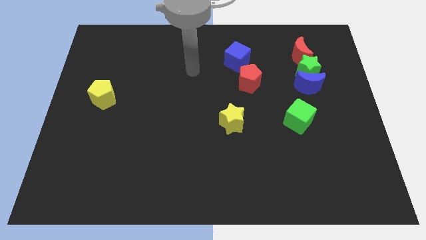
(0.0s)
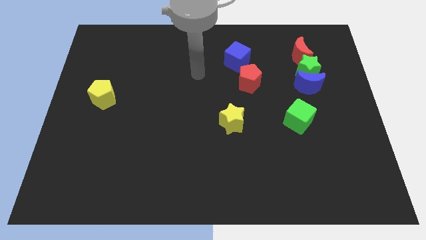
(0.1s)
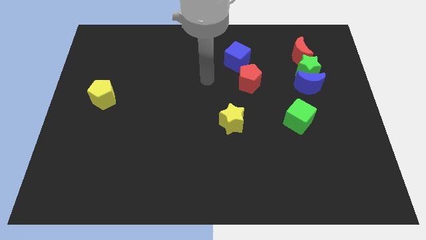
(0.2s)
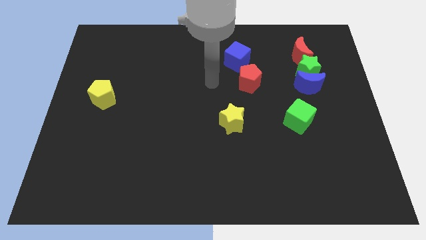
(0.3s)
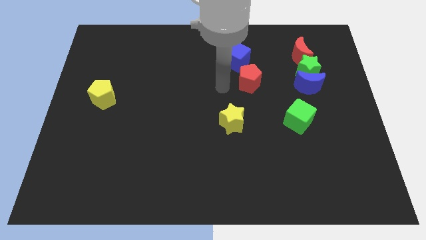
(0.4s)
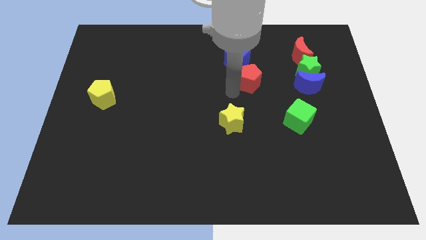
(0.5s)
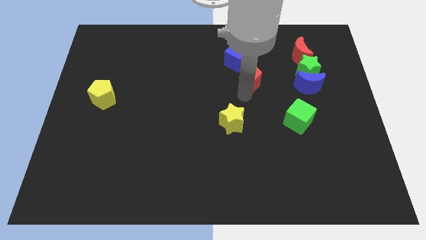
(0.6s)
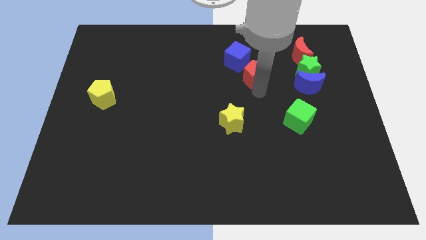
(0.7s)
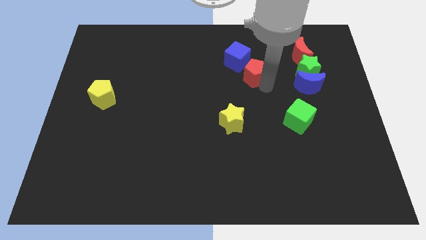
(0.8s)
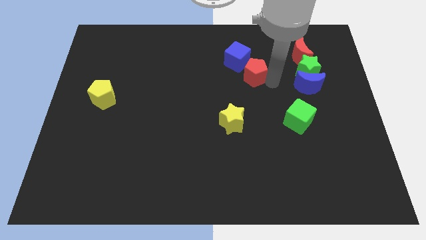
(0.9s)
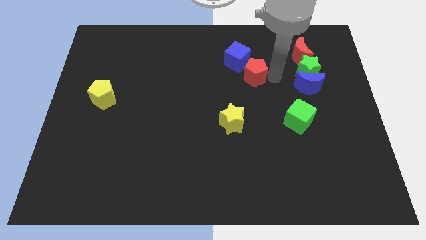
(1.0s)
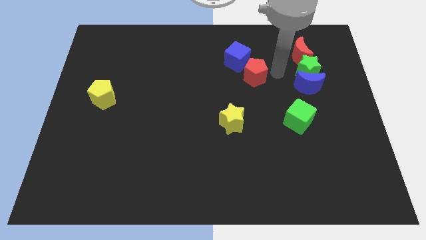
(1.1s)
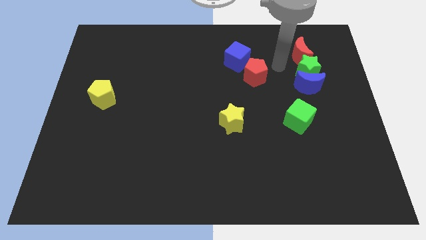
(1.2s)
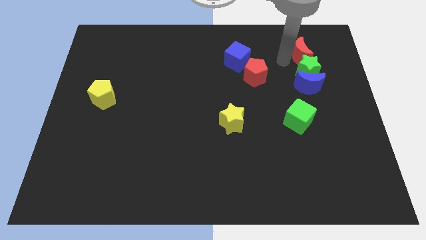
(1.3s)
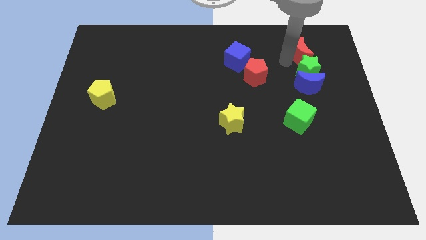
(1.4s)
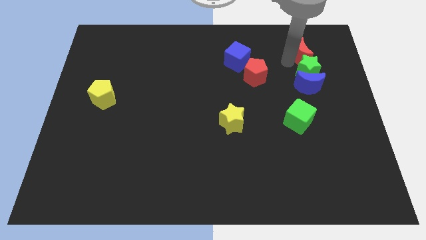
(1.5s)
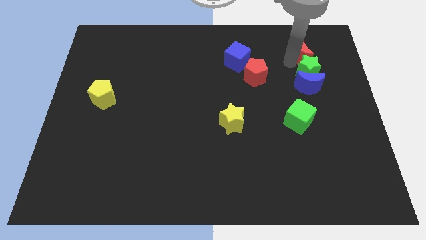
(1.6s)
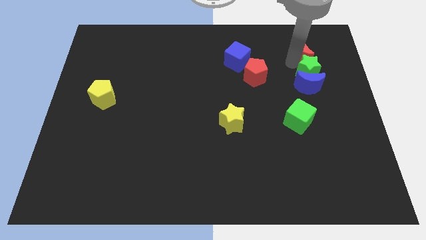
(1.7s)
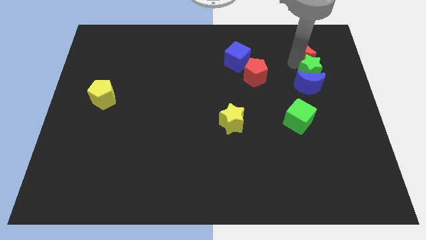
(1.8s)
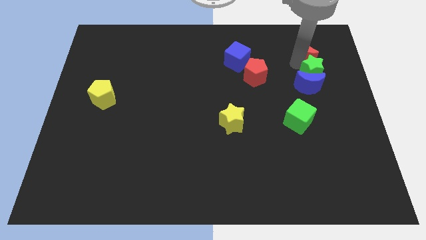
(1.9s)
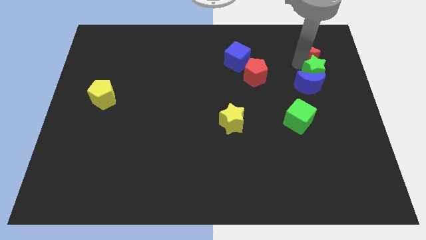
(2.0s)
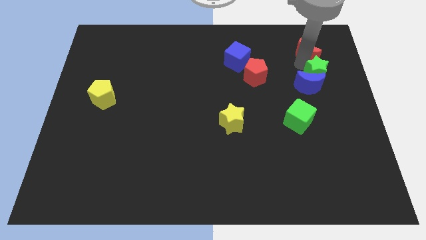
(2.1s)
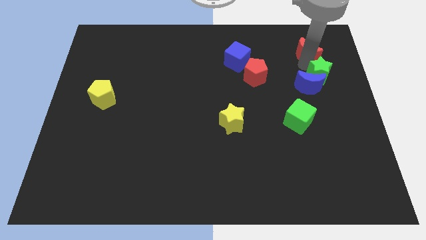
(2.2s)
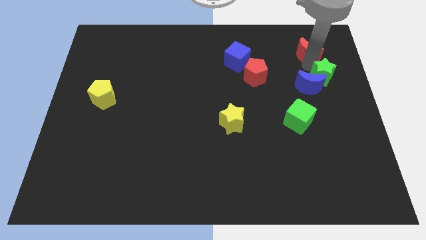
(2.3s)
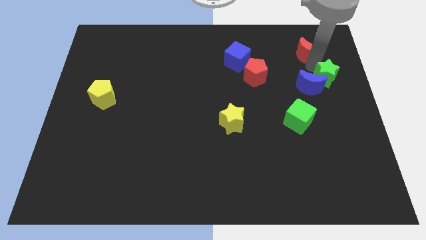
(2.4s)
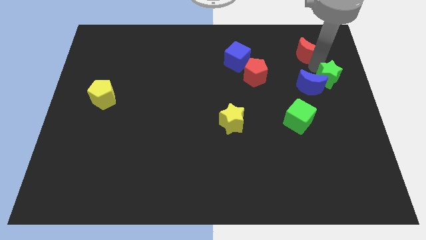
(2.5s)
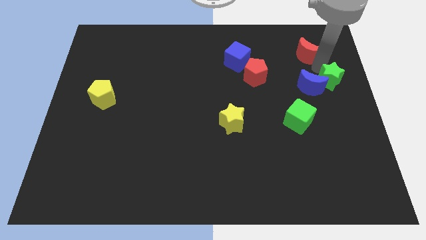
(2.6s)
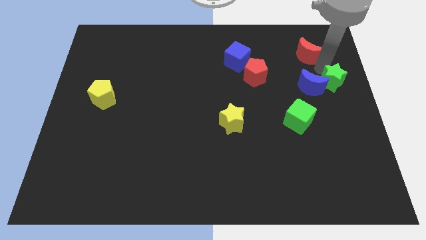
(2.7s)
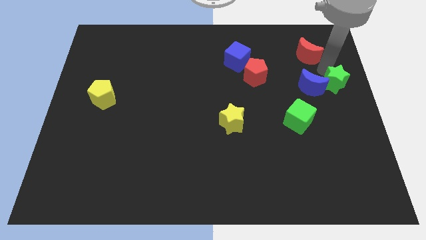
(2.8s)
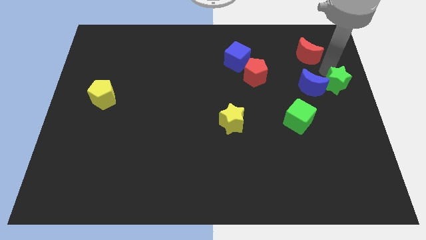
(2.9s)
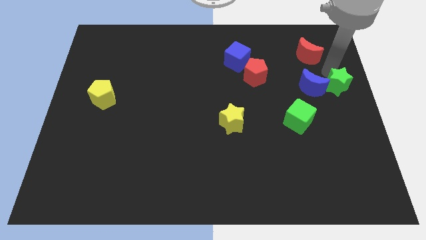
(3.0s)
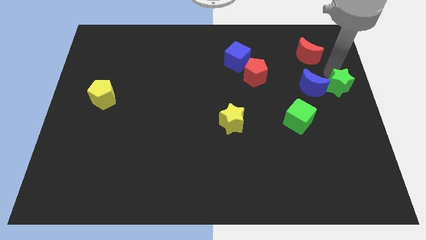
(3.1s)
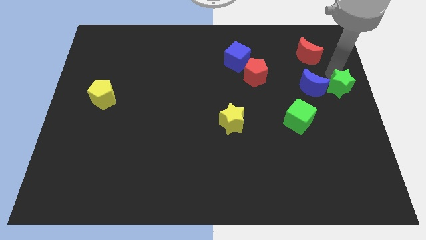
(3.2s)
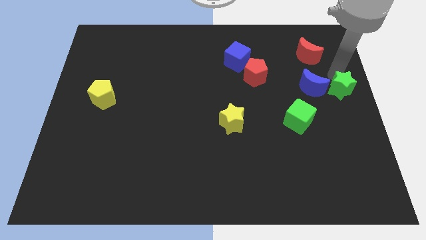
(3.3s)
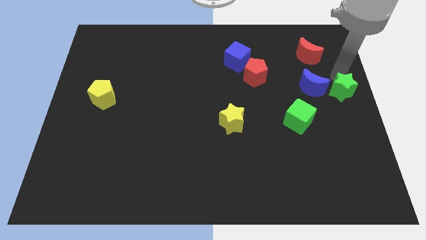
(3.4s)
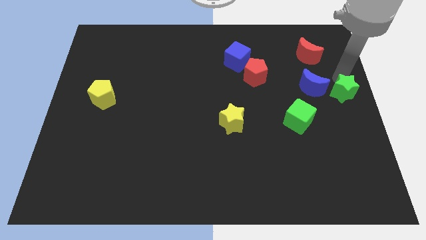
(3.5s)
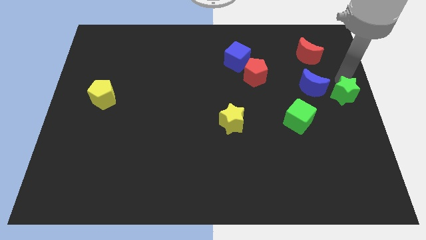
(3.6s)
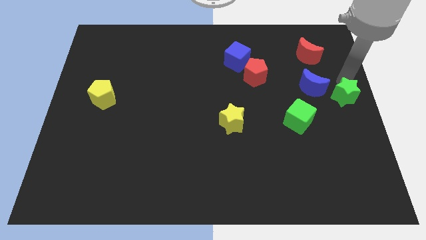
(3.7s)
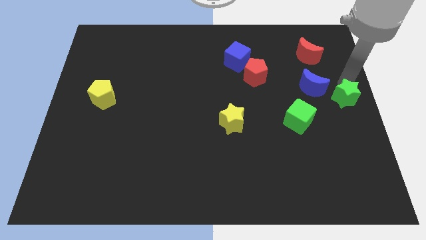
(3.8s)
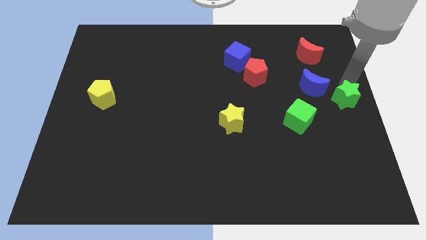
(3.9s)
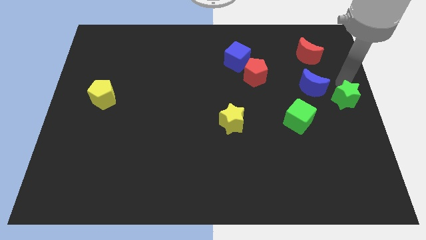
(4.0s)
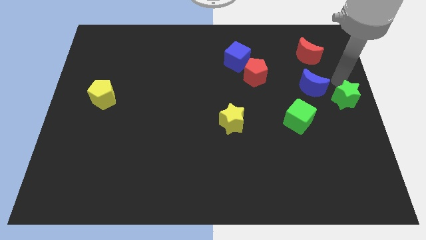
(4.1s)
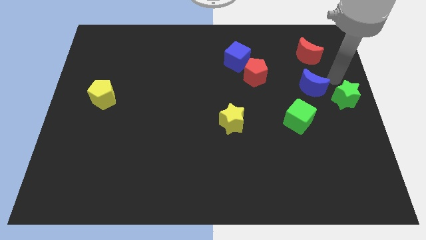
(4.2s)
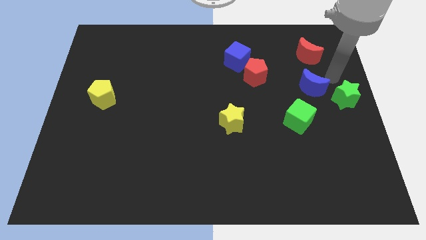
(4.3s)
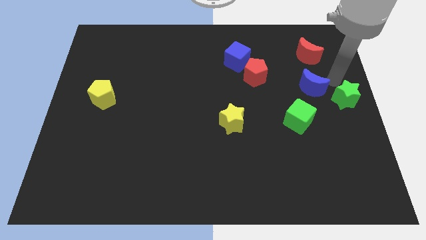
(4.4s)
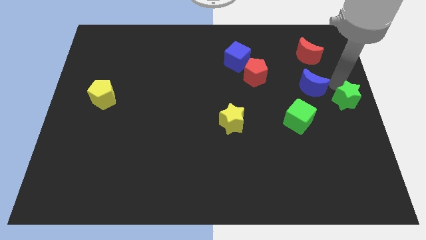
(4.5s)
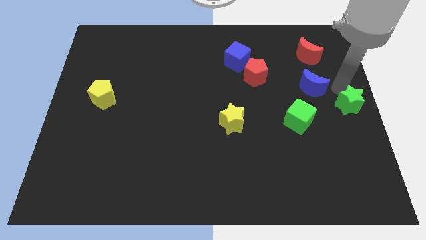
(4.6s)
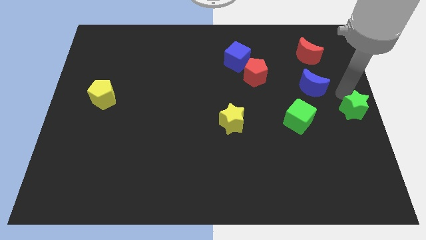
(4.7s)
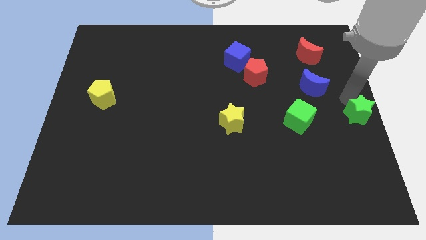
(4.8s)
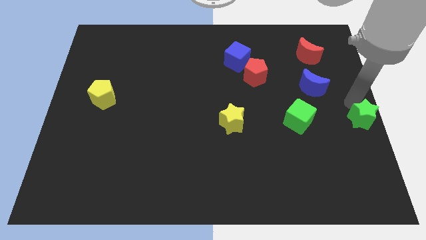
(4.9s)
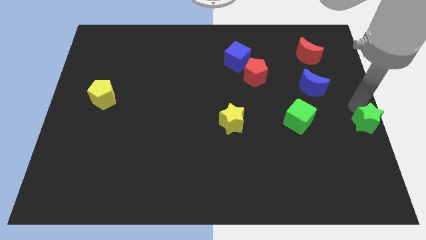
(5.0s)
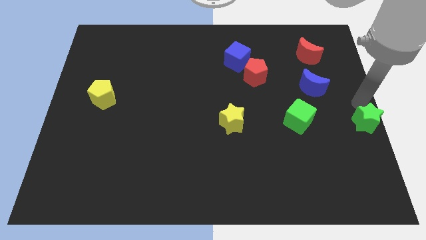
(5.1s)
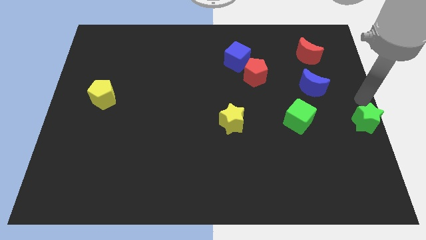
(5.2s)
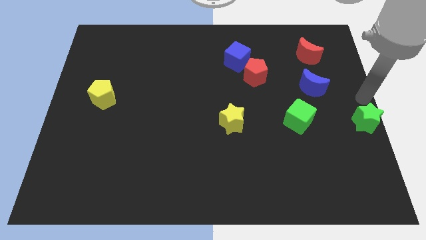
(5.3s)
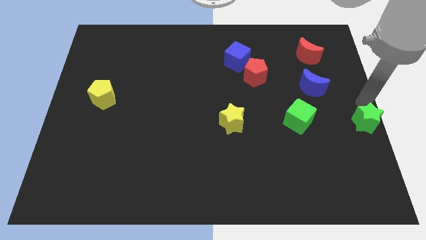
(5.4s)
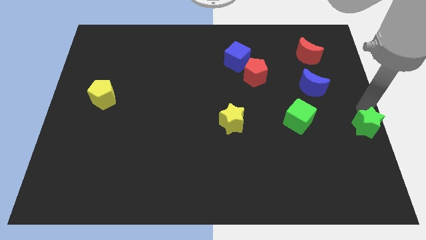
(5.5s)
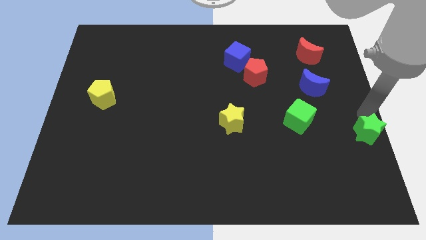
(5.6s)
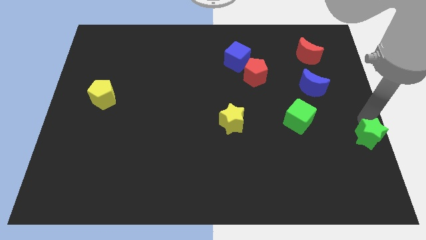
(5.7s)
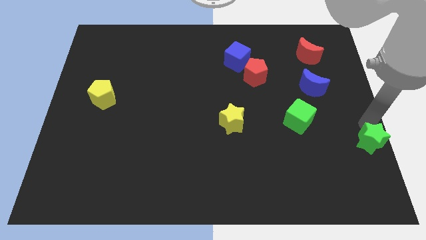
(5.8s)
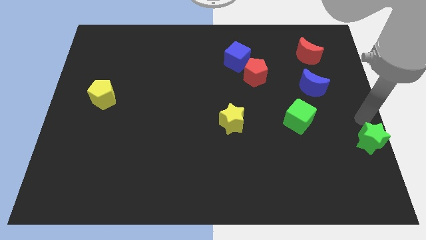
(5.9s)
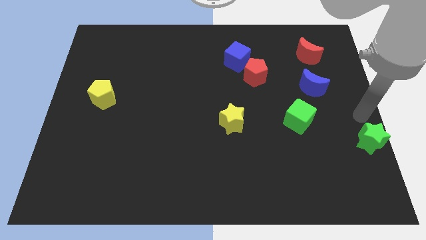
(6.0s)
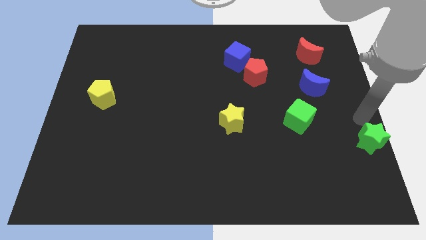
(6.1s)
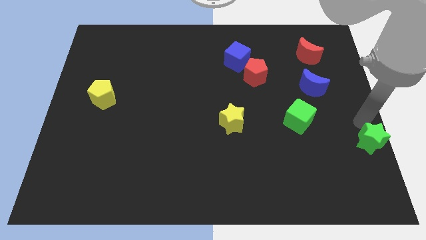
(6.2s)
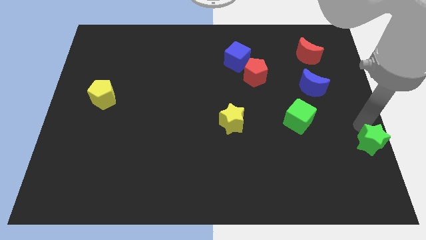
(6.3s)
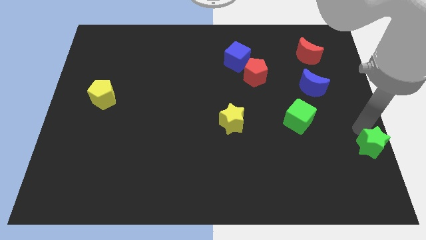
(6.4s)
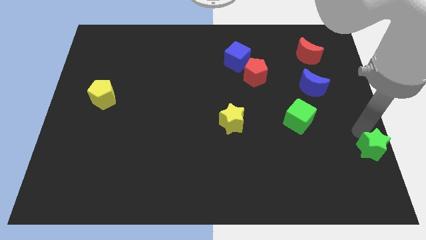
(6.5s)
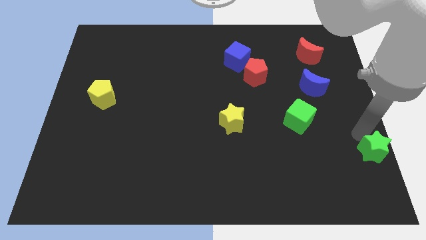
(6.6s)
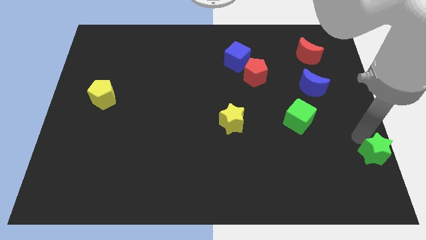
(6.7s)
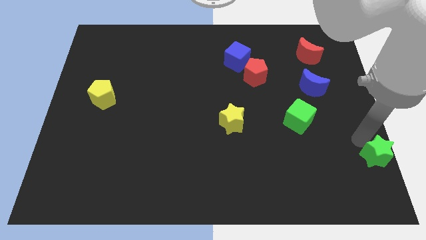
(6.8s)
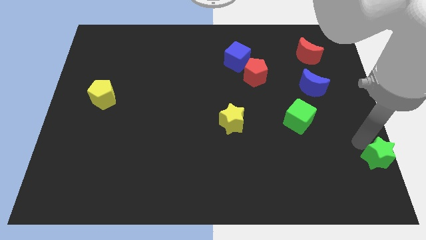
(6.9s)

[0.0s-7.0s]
slide the green star to the bottom right of the board

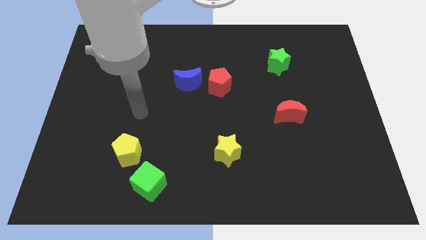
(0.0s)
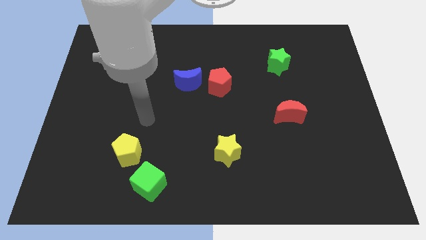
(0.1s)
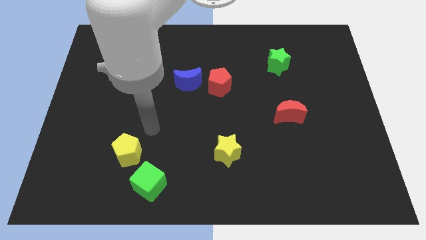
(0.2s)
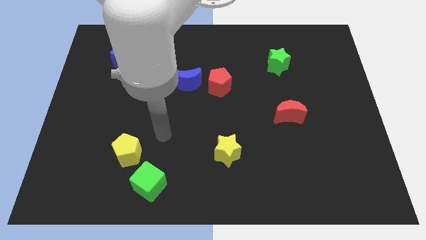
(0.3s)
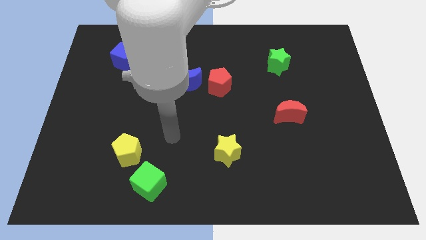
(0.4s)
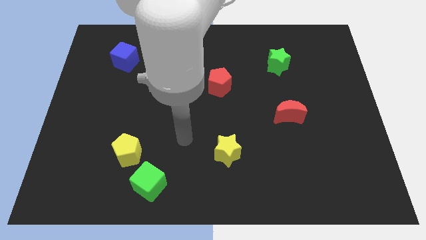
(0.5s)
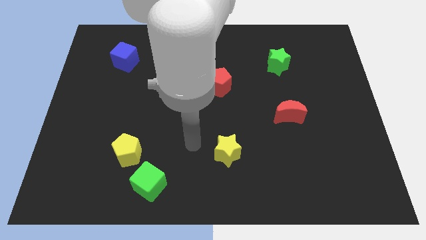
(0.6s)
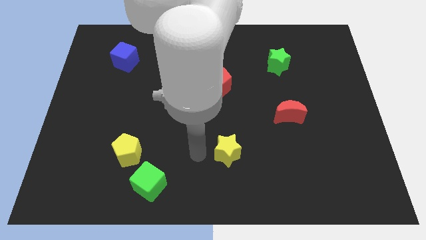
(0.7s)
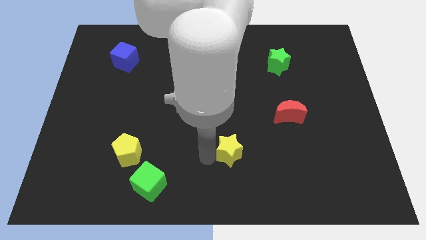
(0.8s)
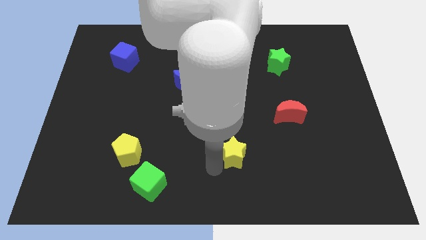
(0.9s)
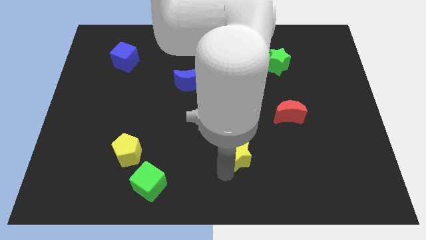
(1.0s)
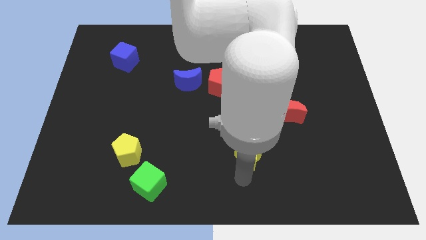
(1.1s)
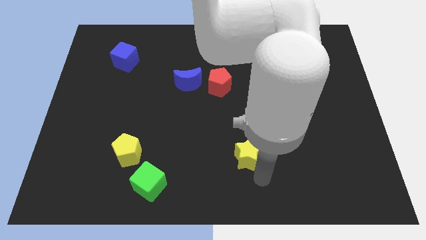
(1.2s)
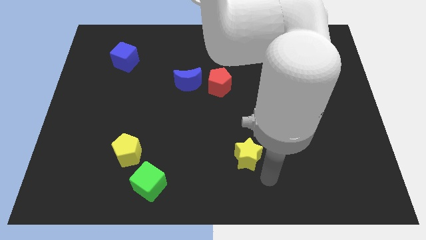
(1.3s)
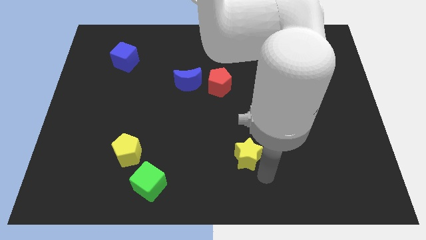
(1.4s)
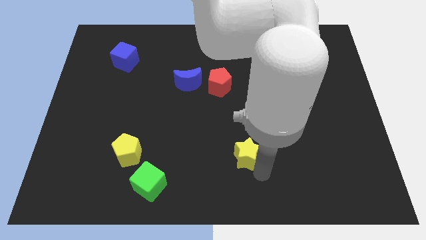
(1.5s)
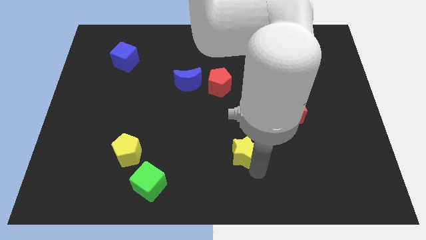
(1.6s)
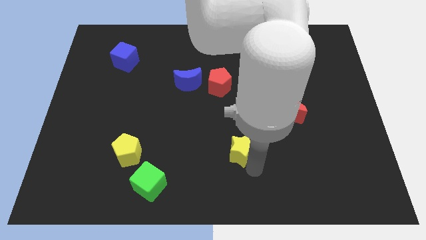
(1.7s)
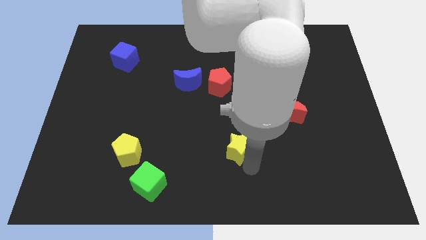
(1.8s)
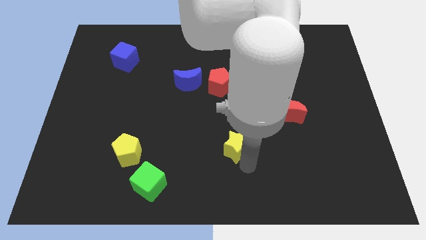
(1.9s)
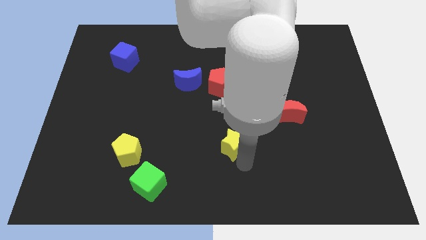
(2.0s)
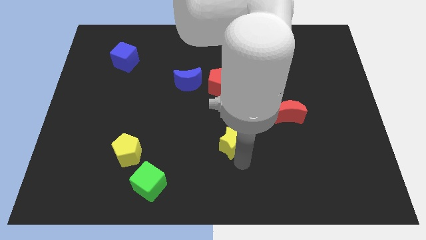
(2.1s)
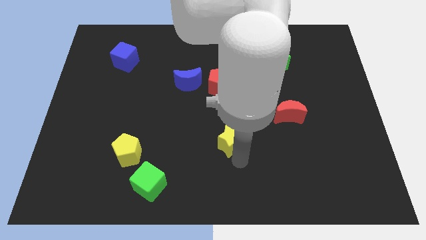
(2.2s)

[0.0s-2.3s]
move the yellow star to the middle
